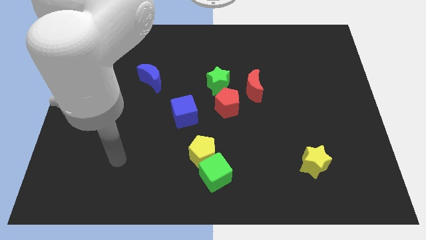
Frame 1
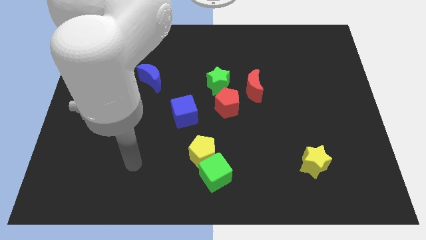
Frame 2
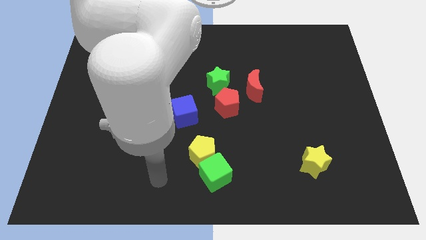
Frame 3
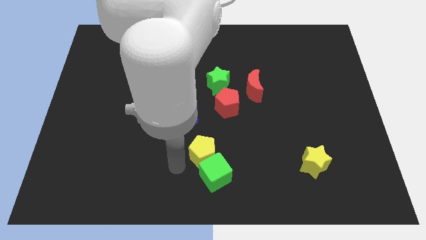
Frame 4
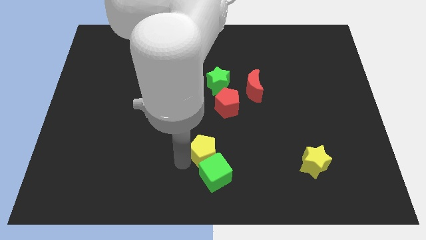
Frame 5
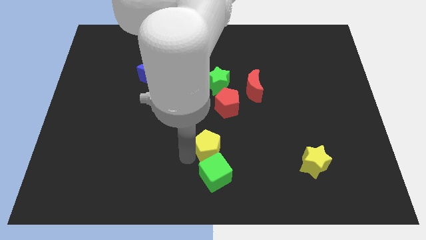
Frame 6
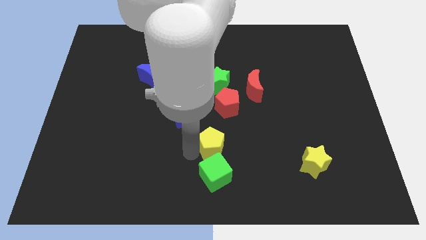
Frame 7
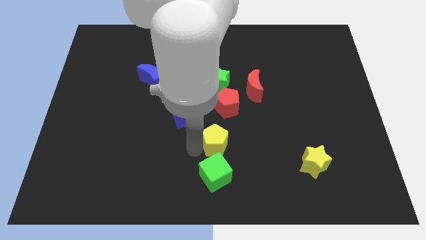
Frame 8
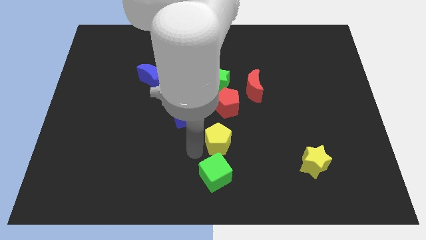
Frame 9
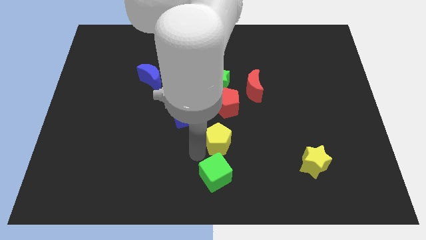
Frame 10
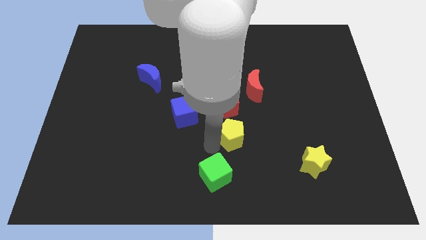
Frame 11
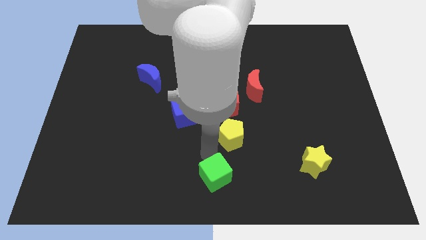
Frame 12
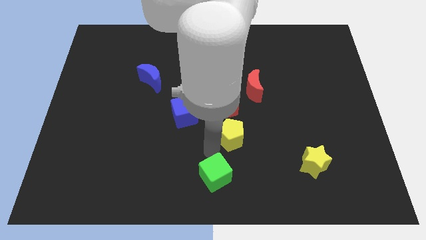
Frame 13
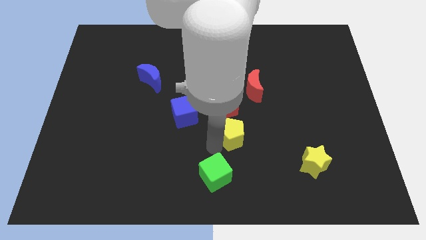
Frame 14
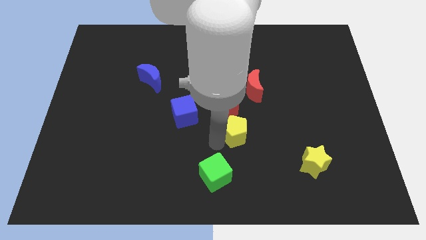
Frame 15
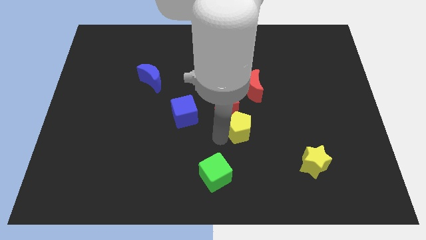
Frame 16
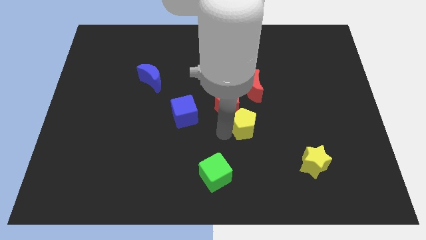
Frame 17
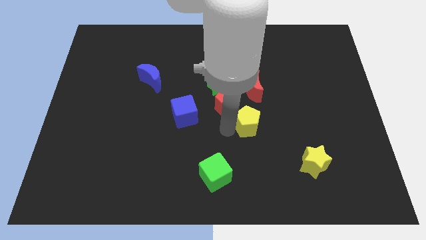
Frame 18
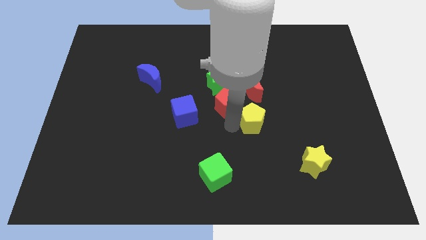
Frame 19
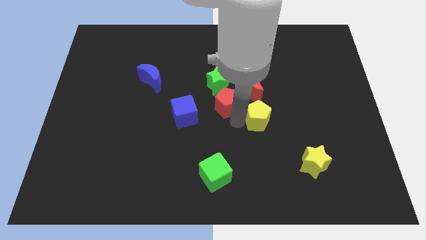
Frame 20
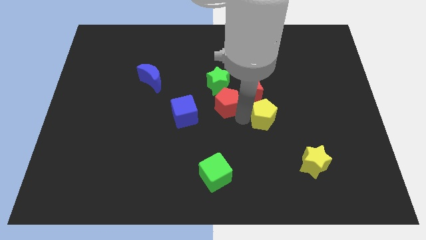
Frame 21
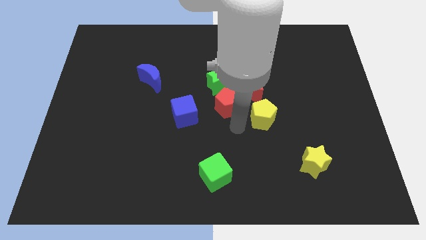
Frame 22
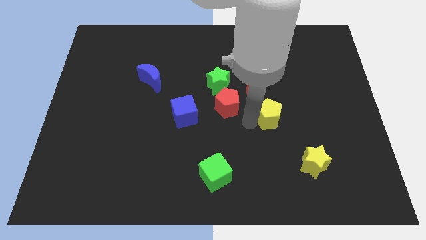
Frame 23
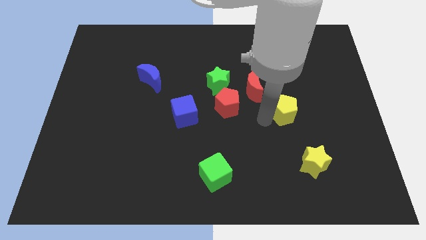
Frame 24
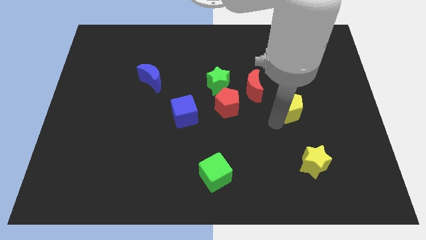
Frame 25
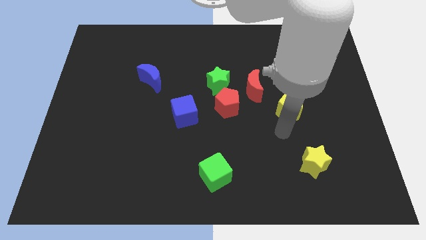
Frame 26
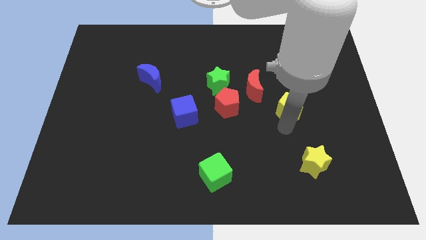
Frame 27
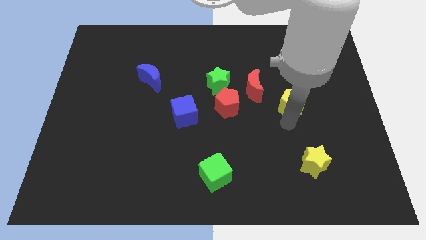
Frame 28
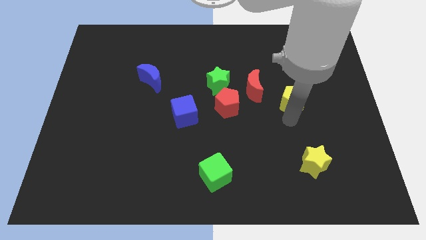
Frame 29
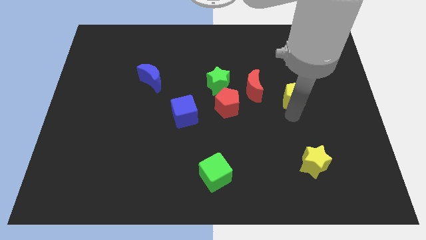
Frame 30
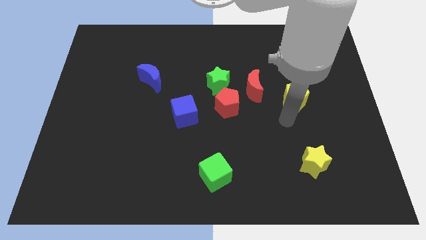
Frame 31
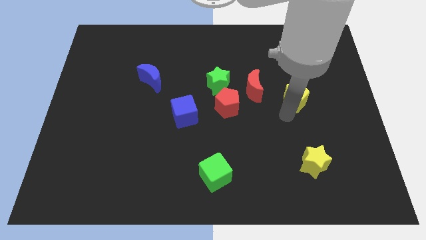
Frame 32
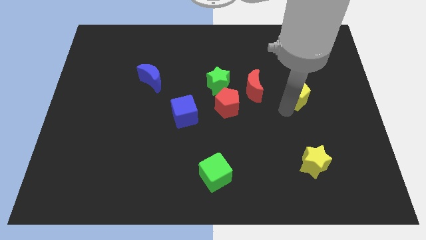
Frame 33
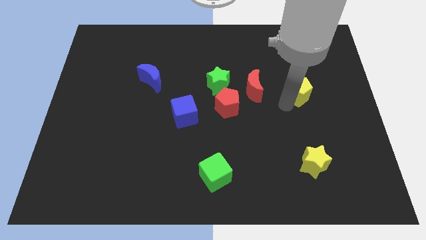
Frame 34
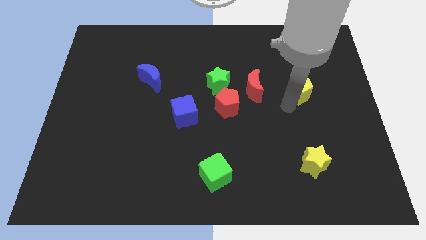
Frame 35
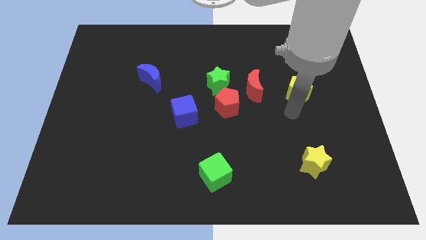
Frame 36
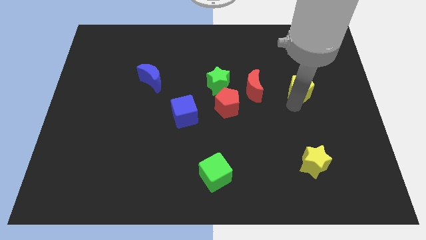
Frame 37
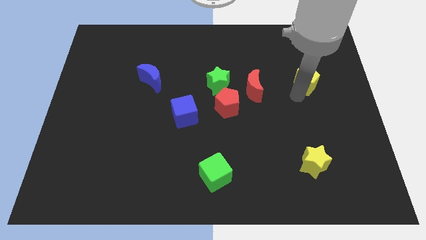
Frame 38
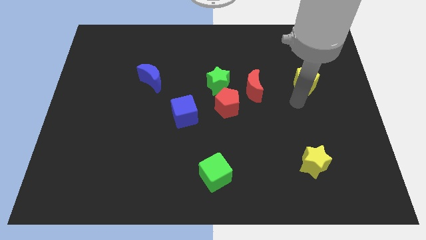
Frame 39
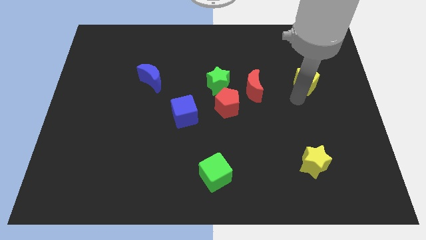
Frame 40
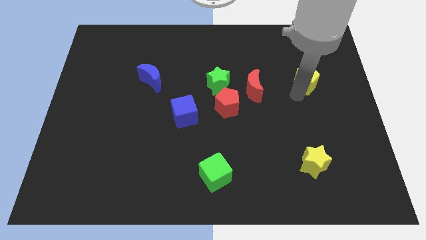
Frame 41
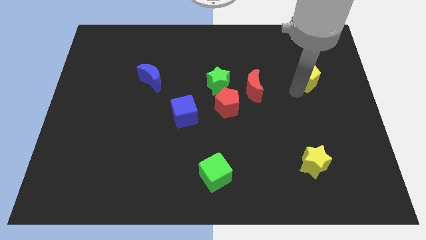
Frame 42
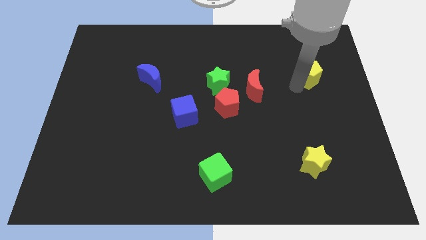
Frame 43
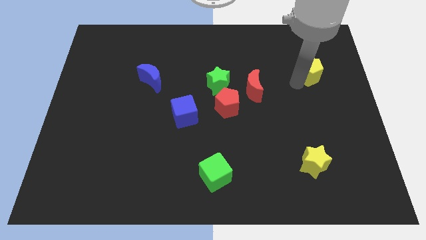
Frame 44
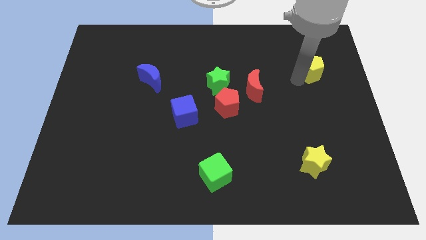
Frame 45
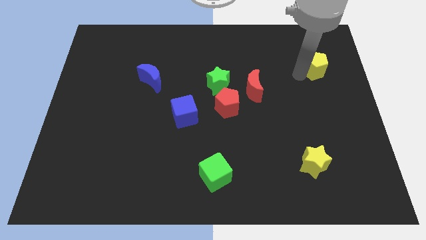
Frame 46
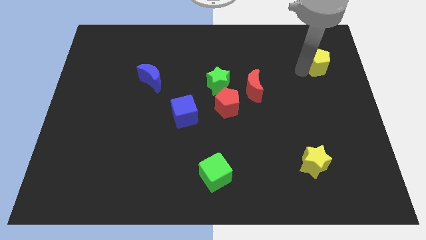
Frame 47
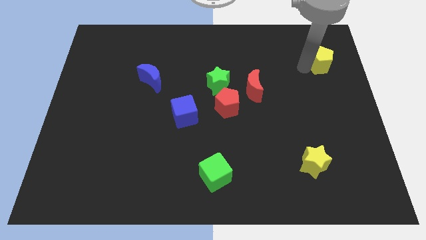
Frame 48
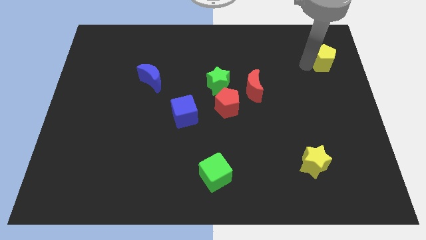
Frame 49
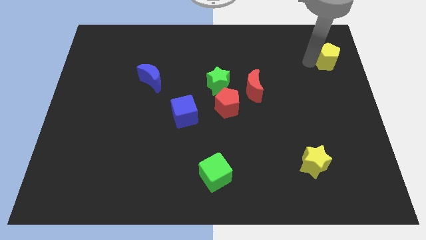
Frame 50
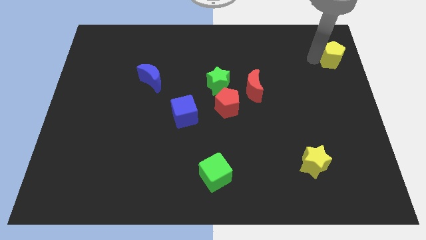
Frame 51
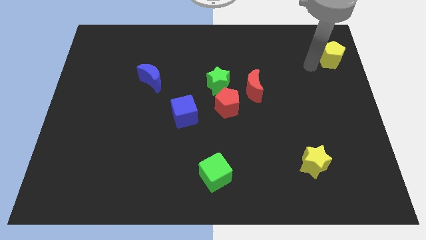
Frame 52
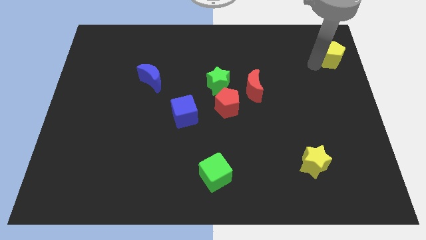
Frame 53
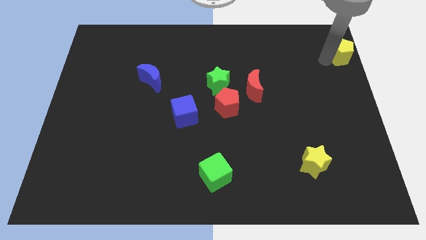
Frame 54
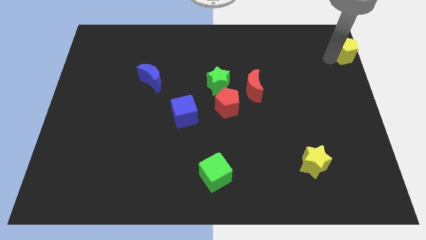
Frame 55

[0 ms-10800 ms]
move the yellow pentagon to the top right corner
